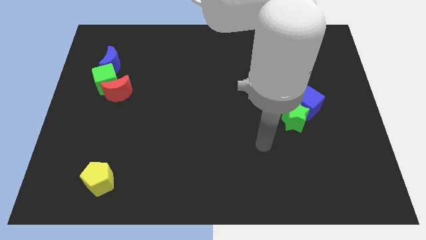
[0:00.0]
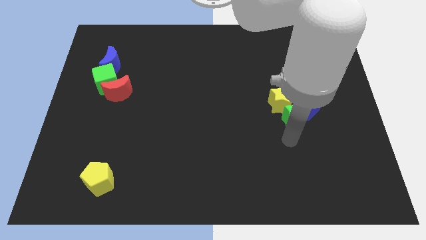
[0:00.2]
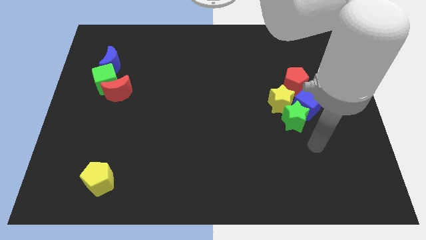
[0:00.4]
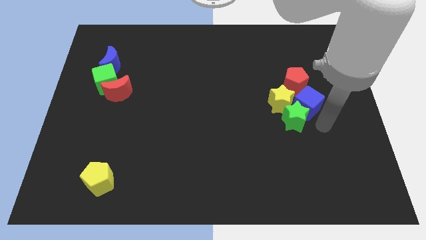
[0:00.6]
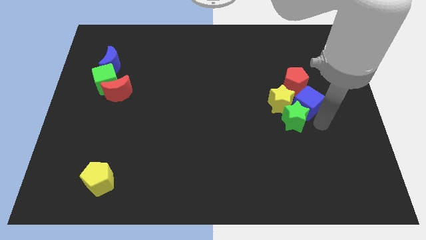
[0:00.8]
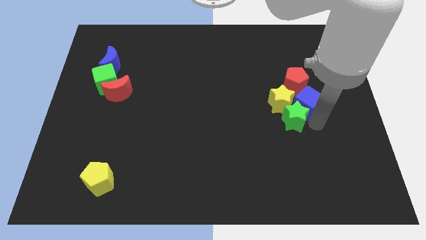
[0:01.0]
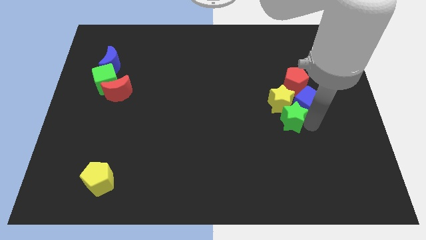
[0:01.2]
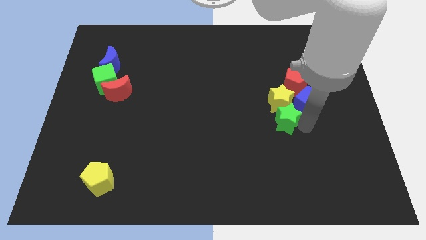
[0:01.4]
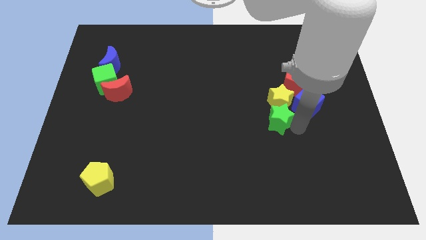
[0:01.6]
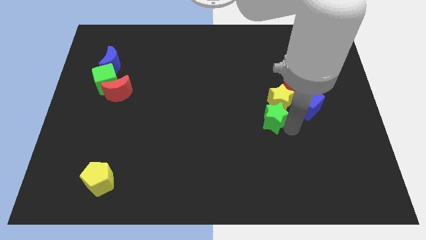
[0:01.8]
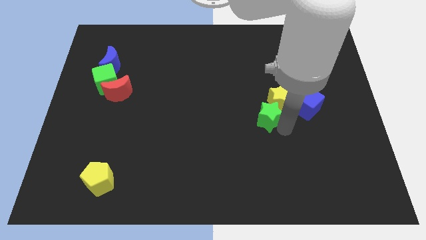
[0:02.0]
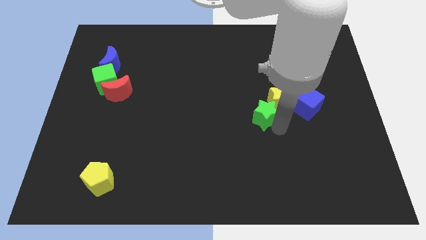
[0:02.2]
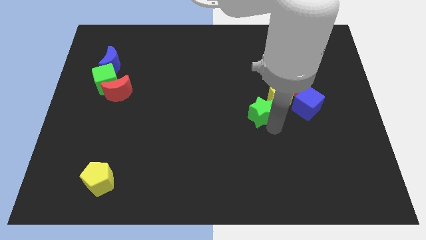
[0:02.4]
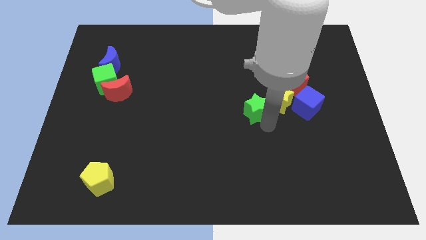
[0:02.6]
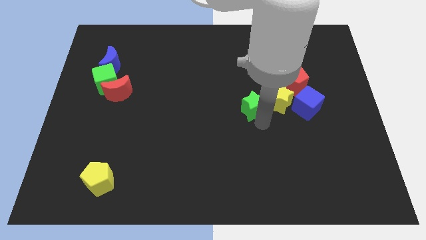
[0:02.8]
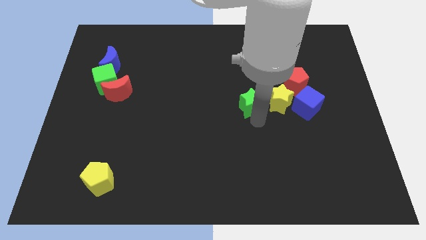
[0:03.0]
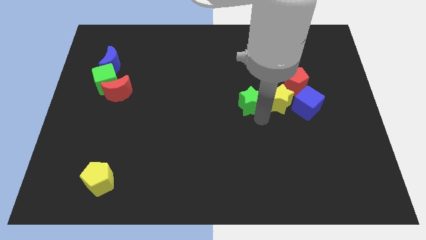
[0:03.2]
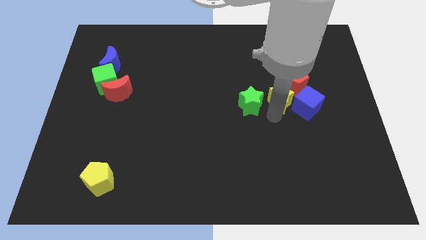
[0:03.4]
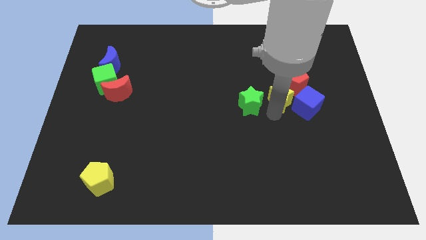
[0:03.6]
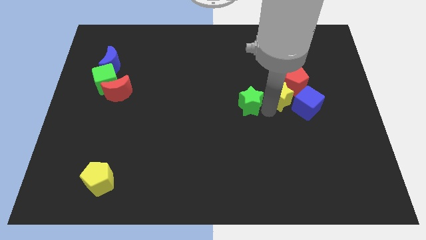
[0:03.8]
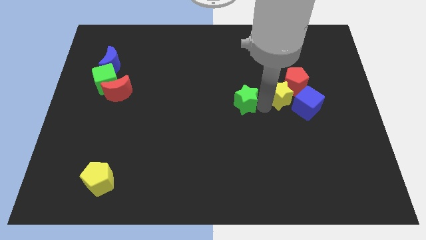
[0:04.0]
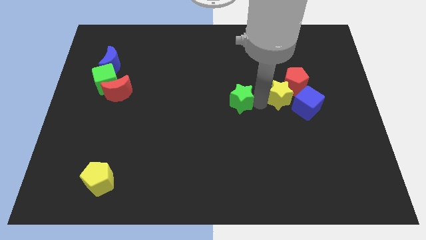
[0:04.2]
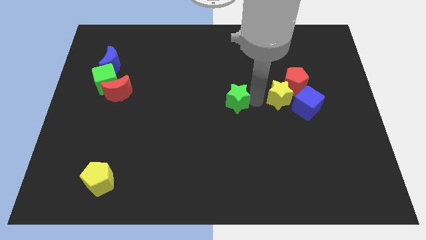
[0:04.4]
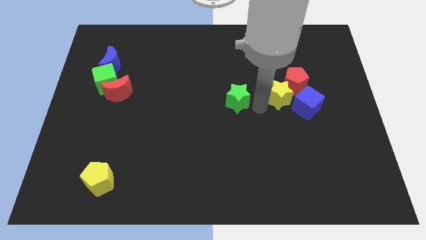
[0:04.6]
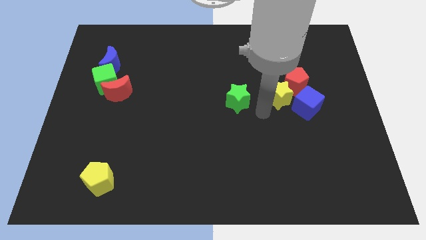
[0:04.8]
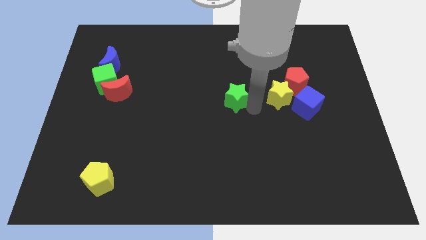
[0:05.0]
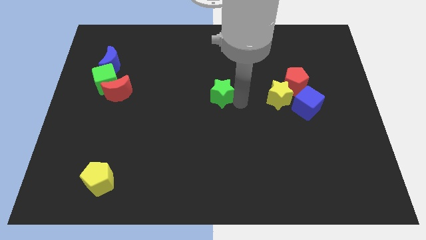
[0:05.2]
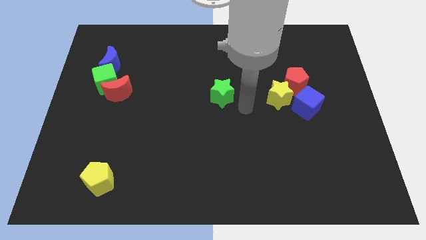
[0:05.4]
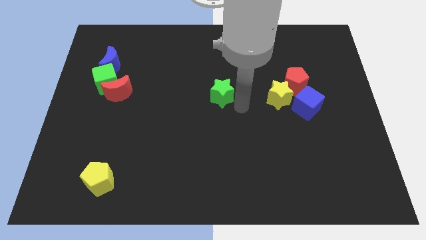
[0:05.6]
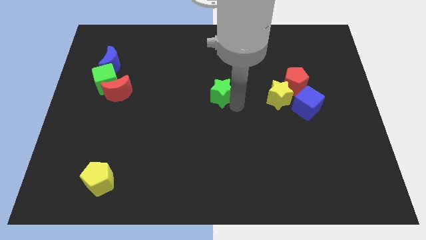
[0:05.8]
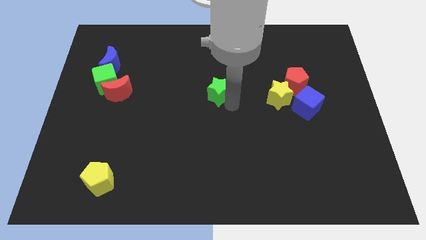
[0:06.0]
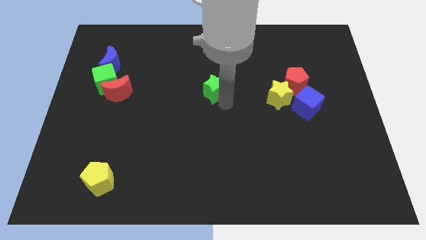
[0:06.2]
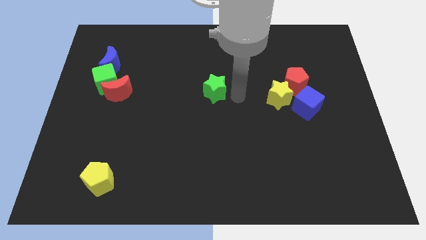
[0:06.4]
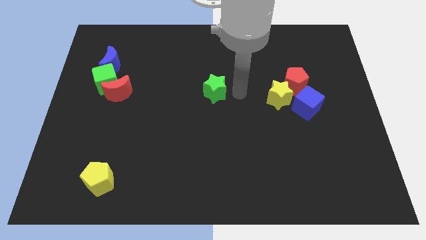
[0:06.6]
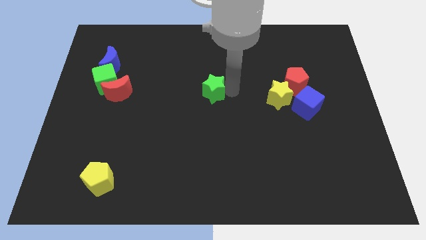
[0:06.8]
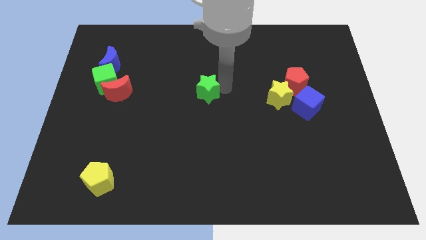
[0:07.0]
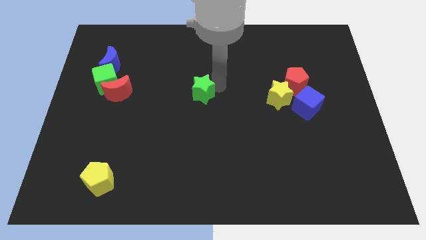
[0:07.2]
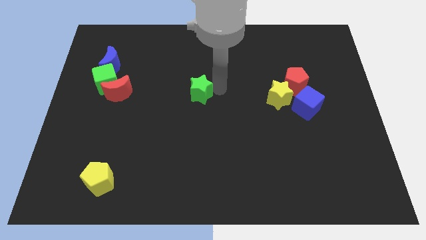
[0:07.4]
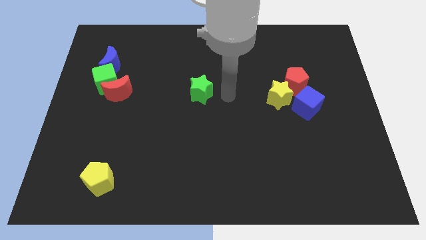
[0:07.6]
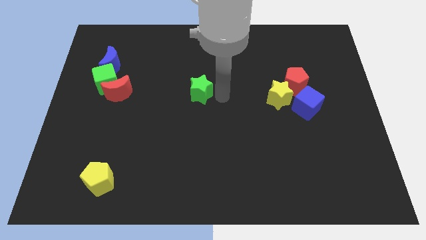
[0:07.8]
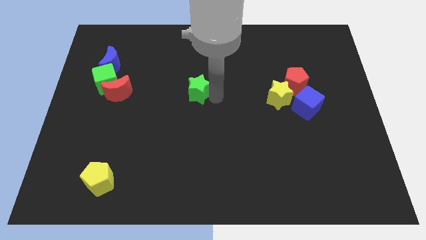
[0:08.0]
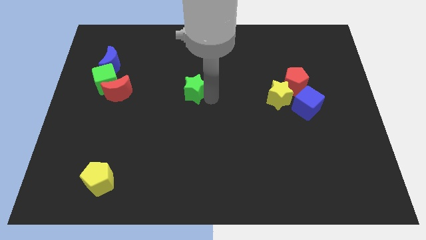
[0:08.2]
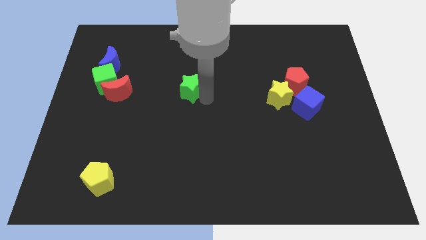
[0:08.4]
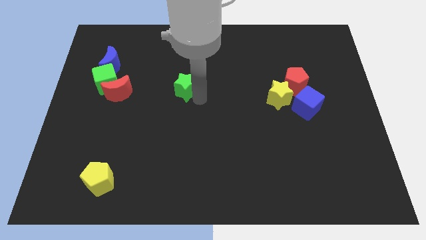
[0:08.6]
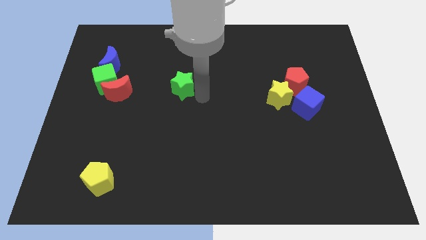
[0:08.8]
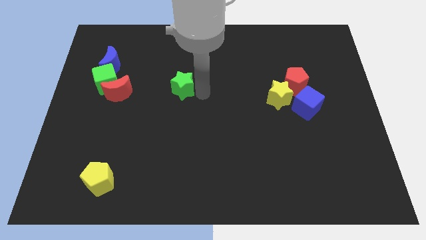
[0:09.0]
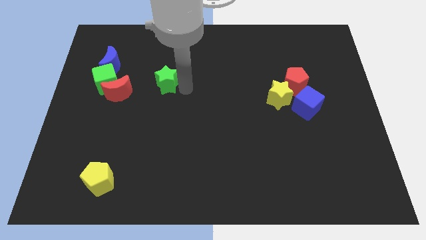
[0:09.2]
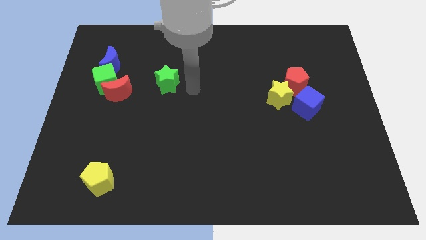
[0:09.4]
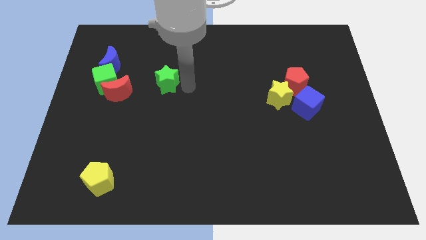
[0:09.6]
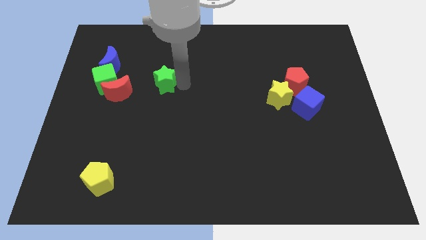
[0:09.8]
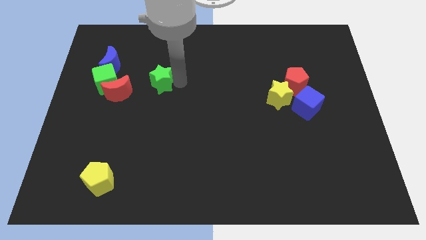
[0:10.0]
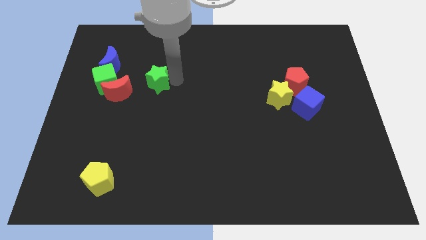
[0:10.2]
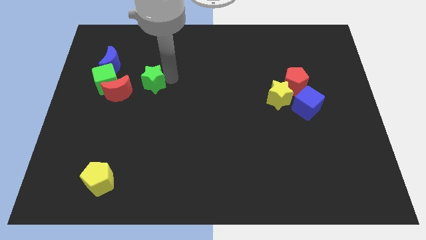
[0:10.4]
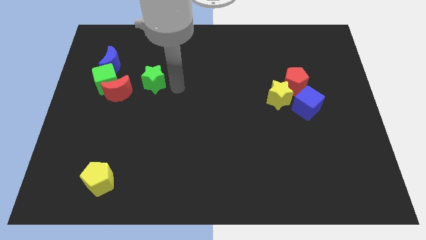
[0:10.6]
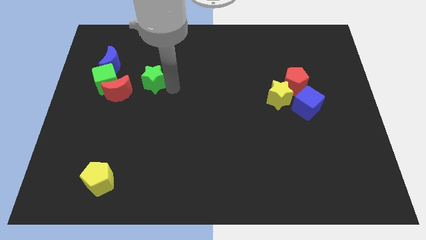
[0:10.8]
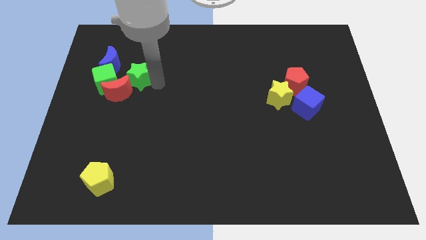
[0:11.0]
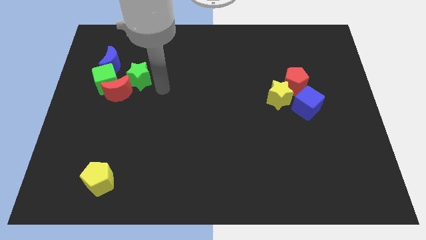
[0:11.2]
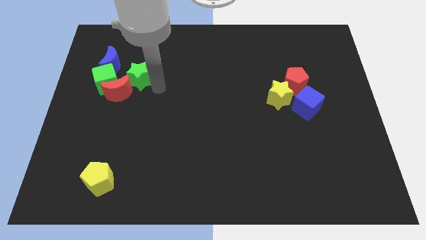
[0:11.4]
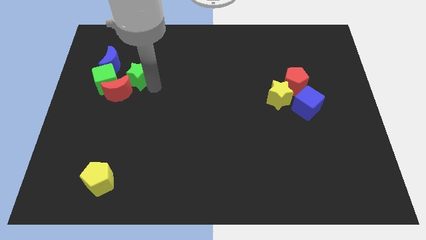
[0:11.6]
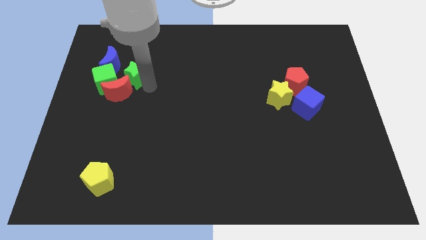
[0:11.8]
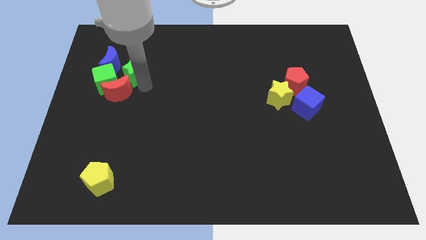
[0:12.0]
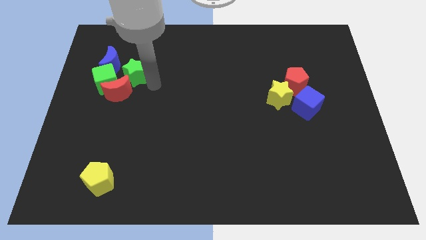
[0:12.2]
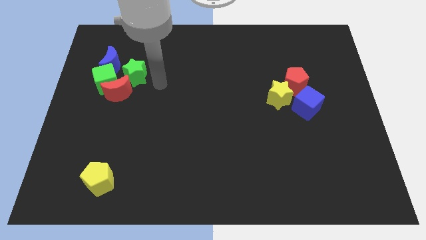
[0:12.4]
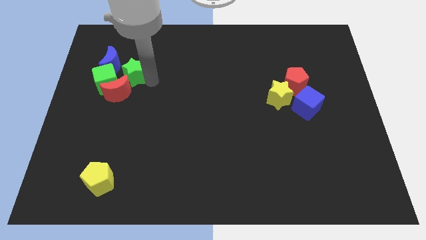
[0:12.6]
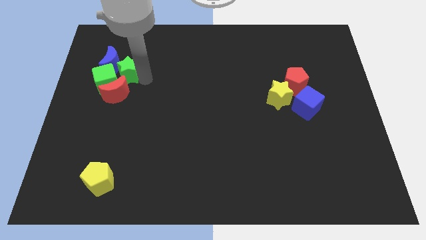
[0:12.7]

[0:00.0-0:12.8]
push the green star to the blue moon

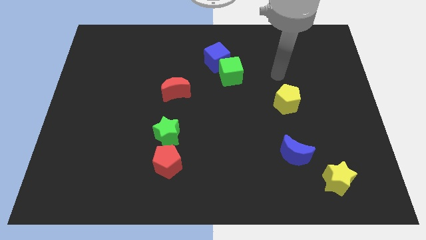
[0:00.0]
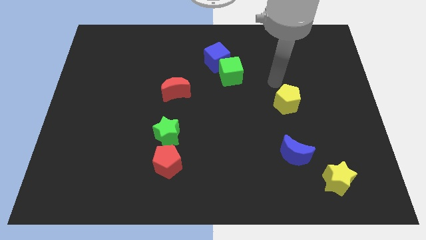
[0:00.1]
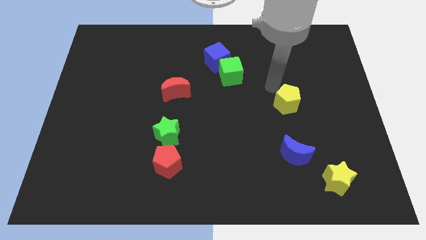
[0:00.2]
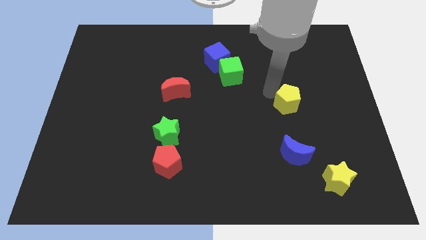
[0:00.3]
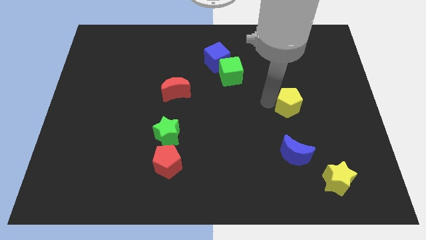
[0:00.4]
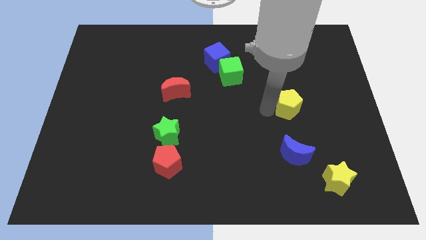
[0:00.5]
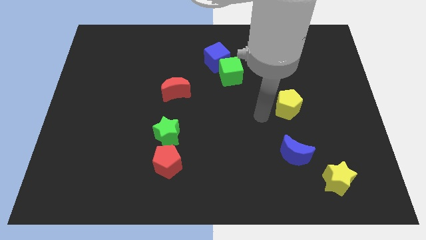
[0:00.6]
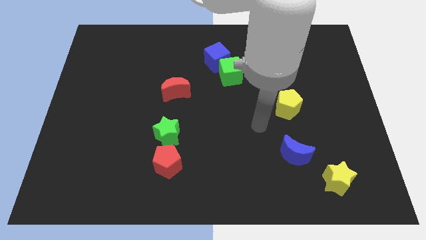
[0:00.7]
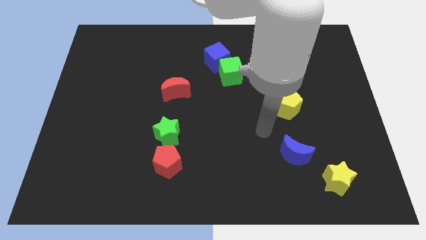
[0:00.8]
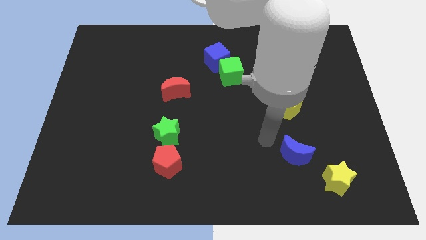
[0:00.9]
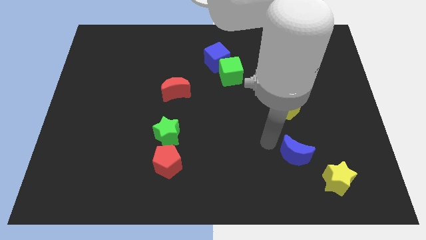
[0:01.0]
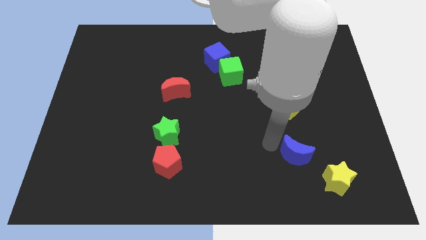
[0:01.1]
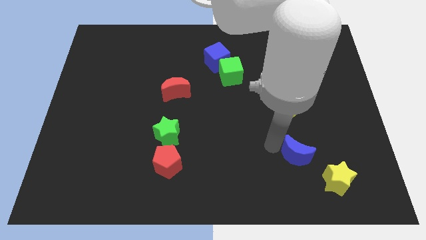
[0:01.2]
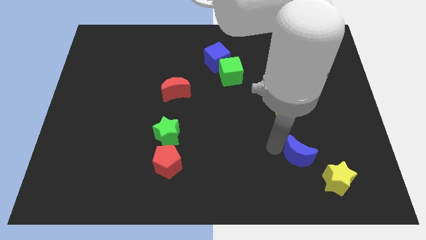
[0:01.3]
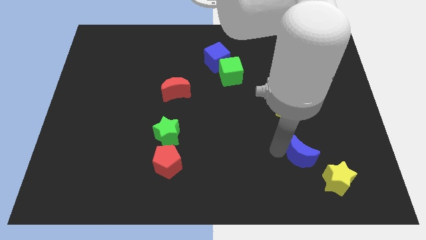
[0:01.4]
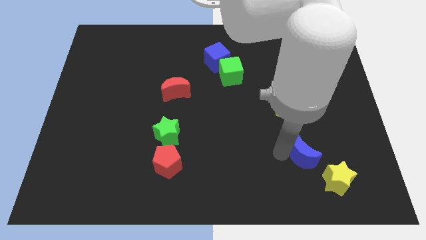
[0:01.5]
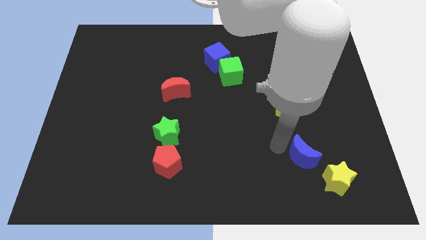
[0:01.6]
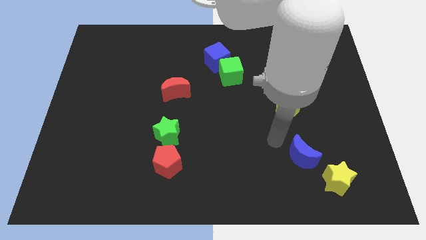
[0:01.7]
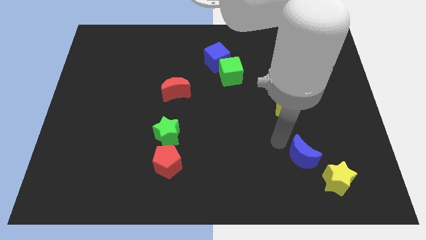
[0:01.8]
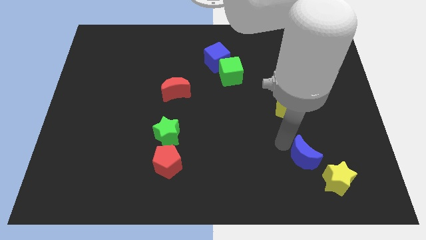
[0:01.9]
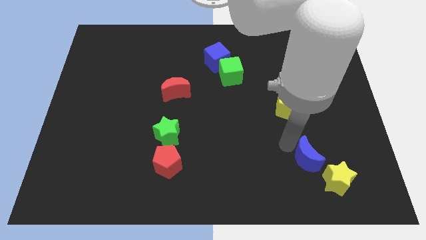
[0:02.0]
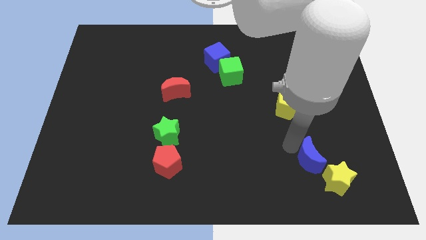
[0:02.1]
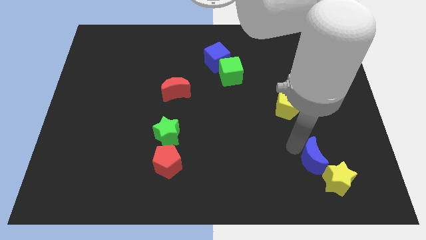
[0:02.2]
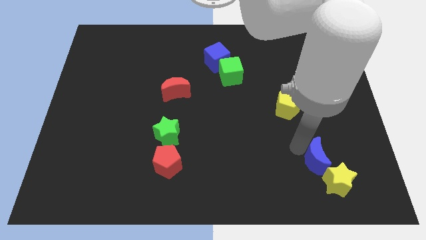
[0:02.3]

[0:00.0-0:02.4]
move the blue moon next to the yellow star
